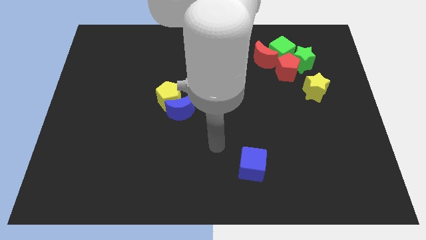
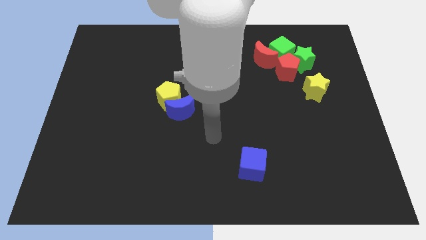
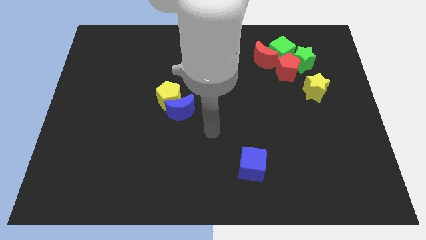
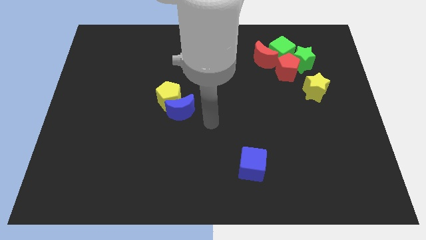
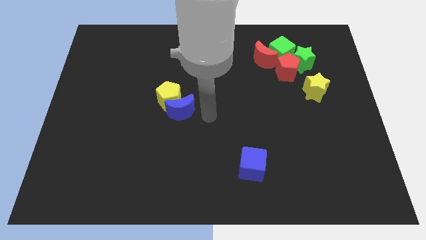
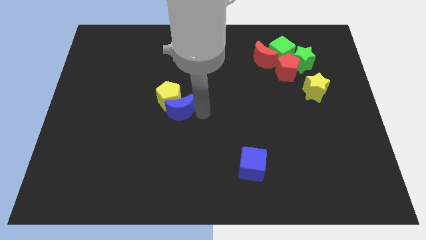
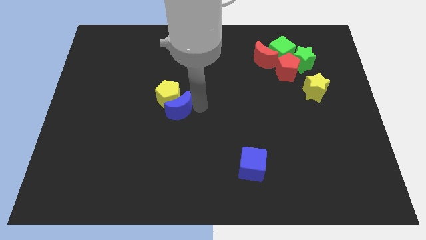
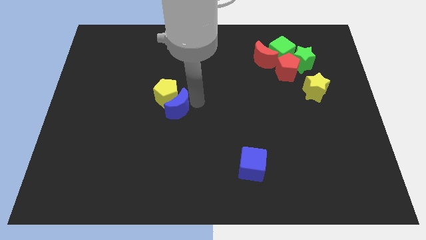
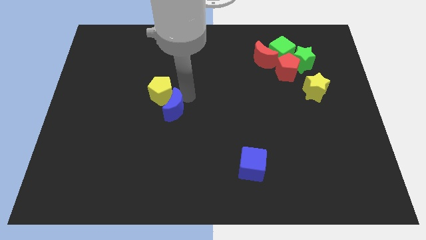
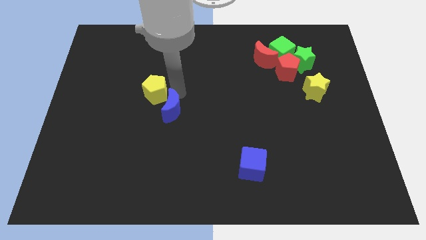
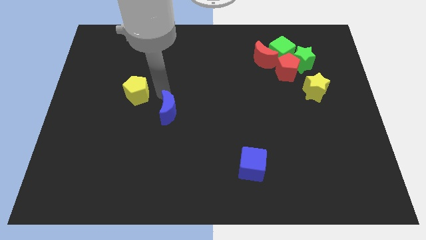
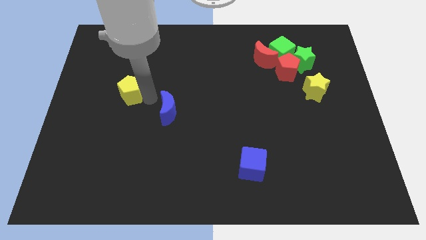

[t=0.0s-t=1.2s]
separate the blue moon from the yellow pentagon

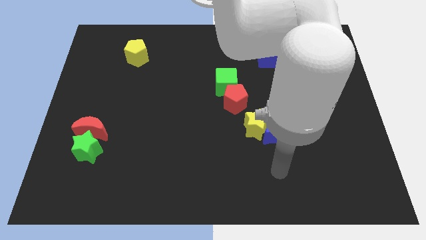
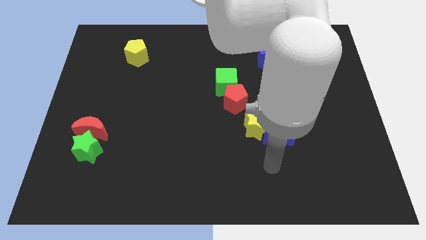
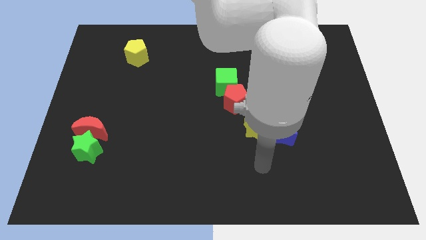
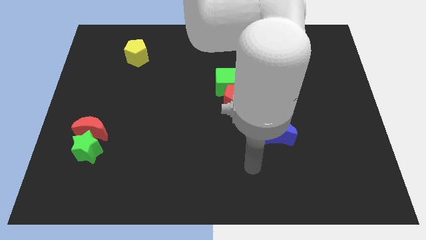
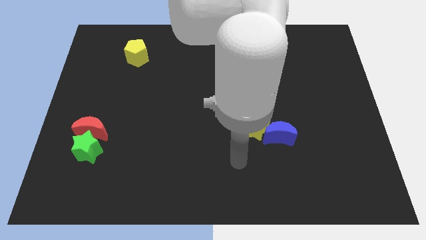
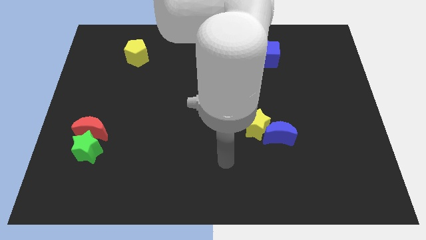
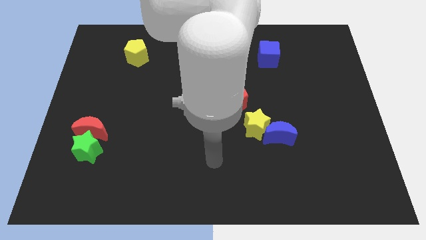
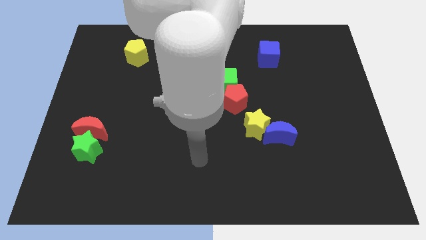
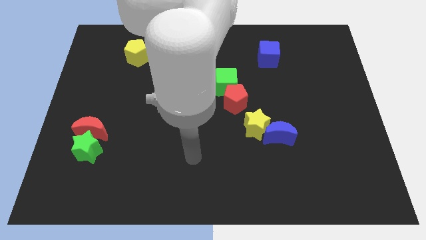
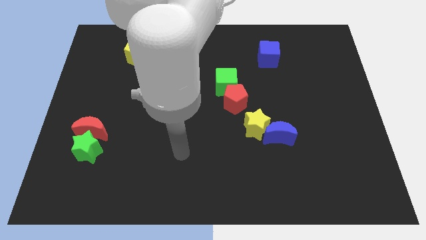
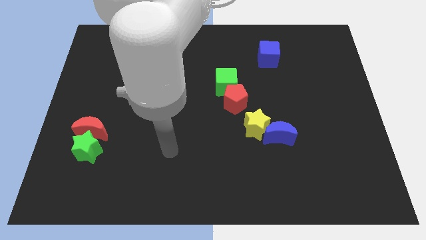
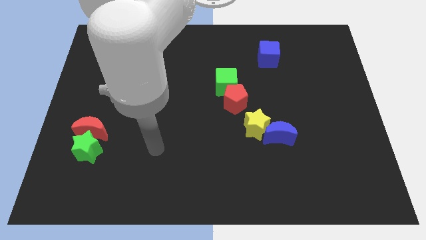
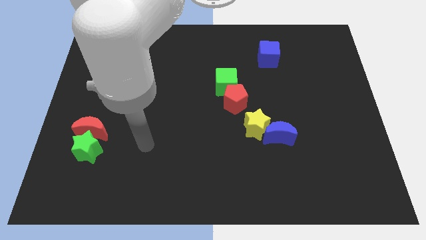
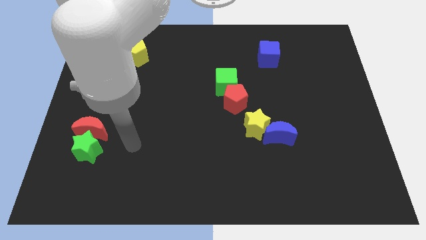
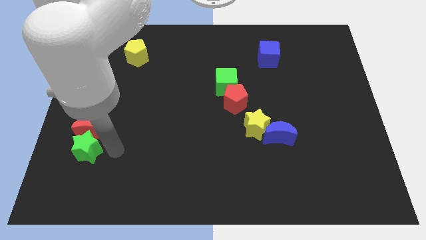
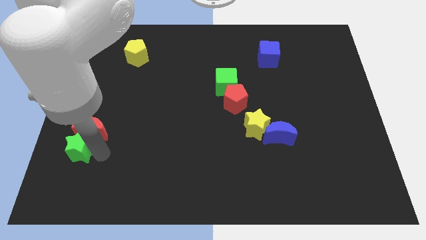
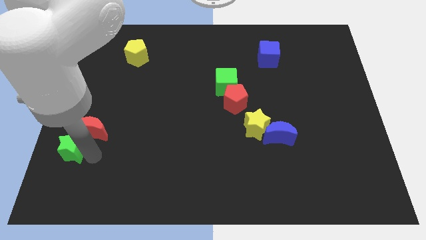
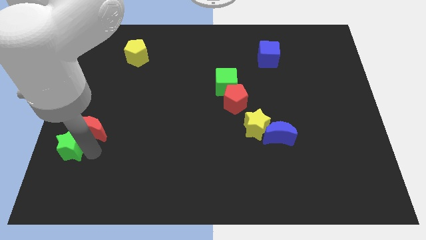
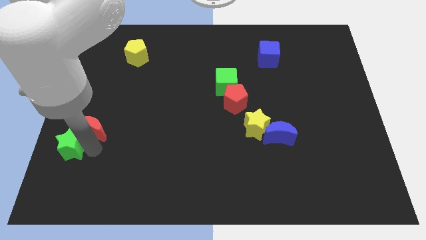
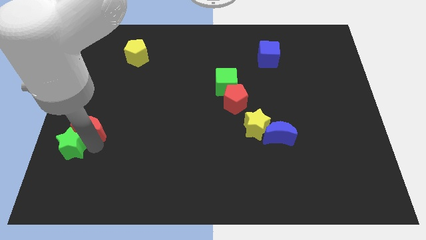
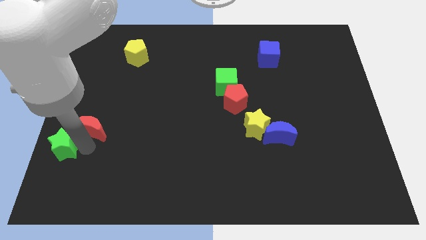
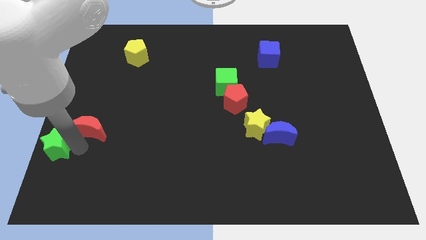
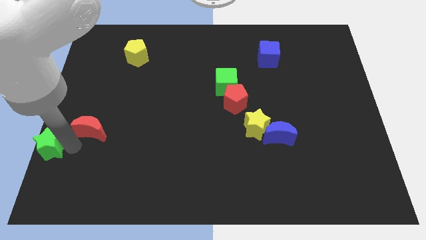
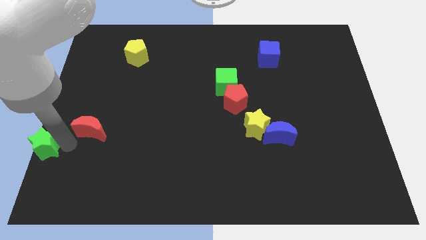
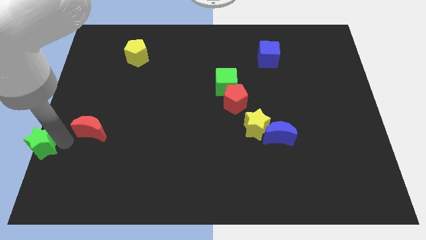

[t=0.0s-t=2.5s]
separate the red moon from the green star

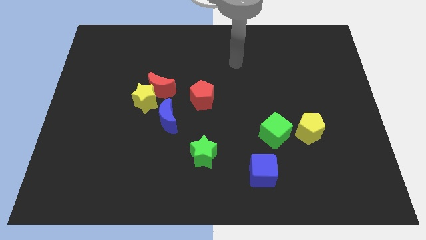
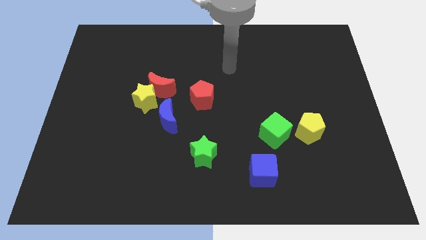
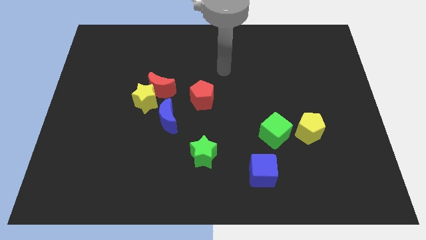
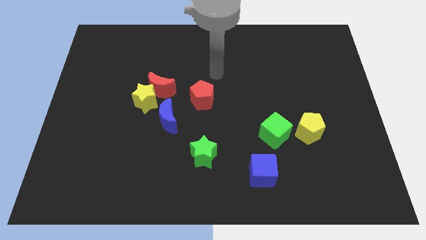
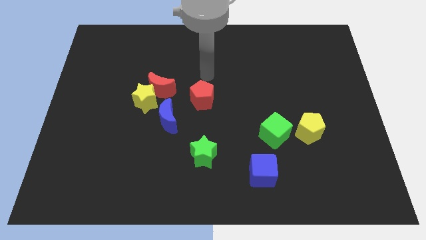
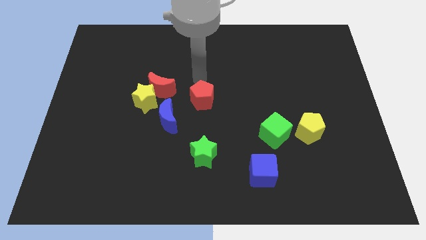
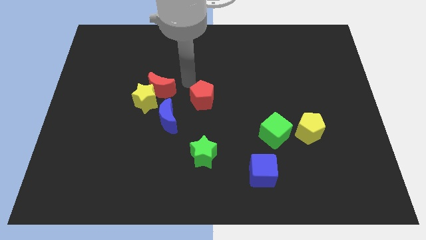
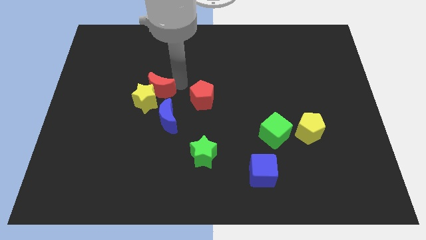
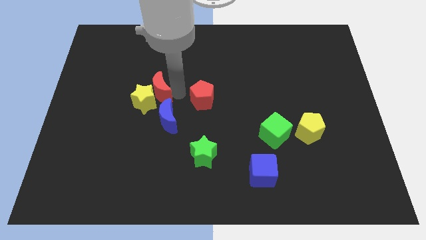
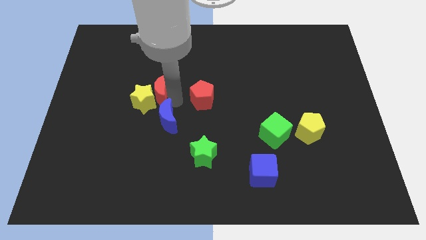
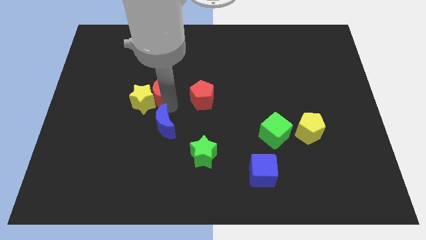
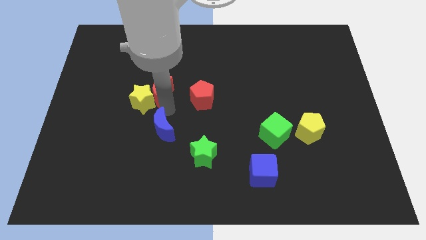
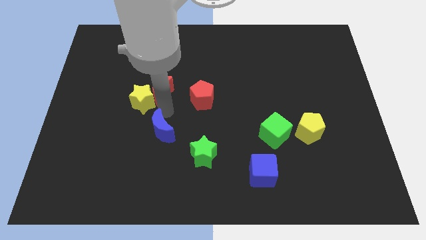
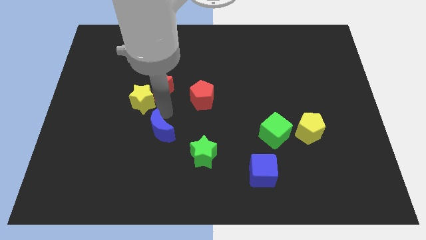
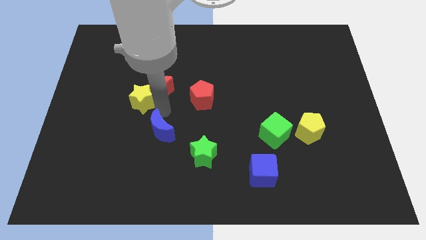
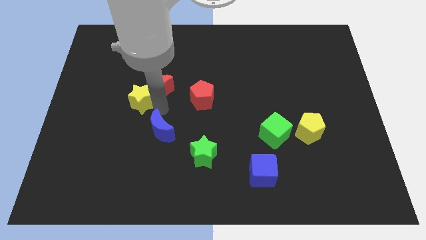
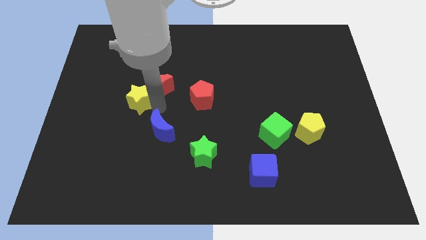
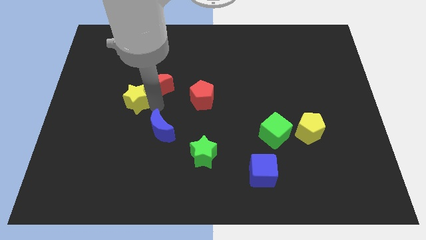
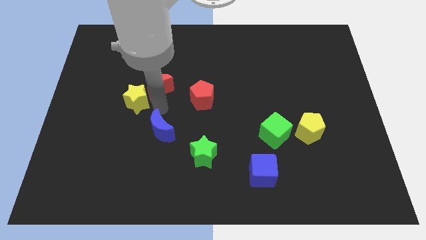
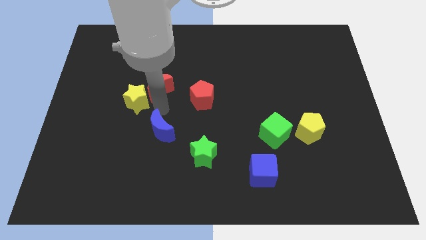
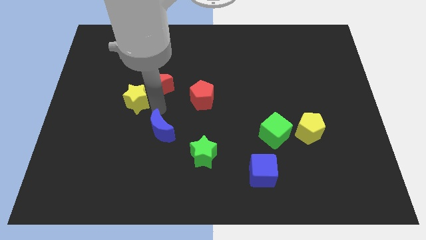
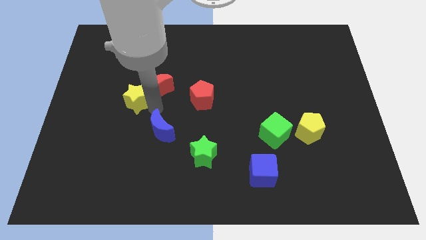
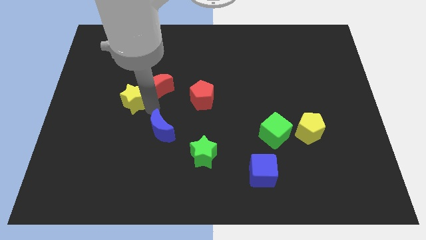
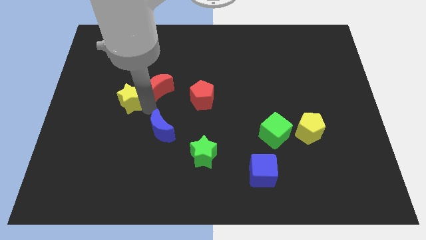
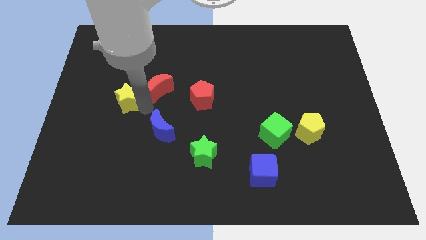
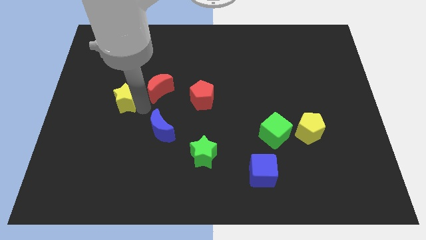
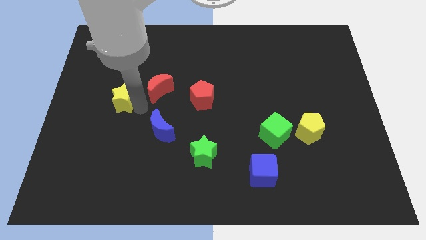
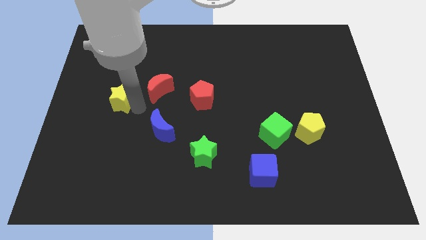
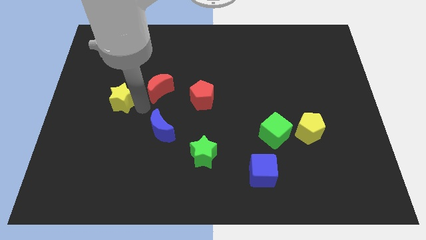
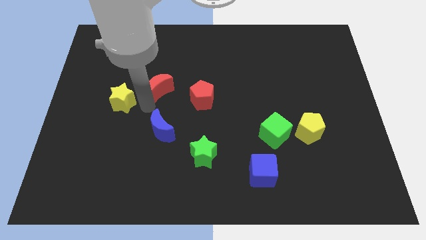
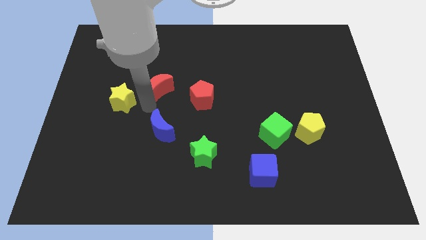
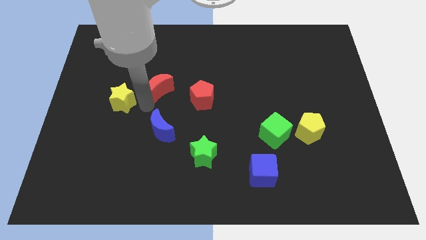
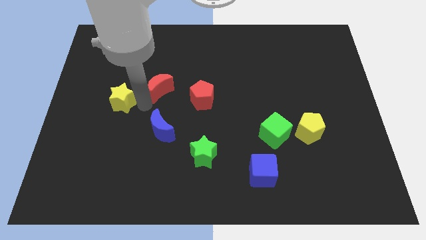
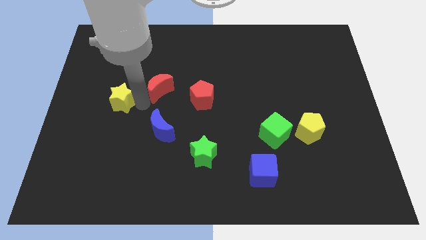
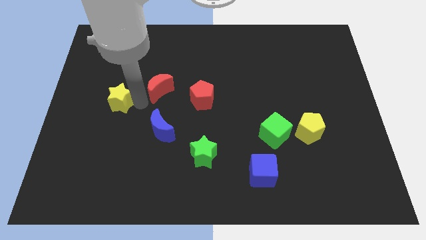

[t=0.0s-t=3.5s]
move the yellow star away from the red moon and blue moon

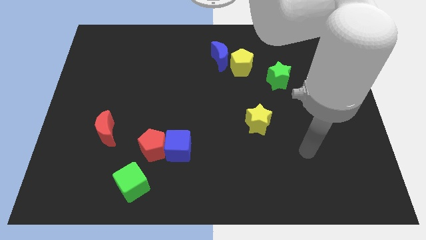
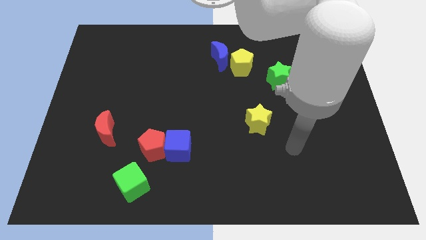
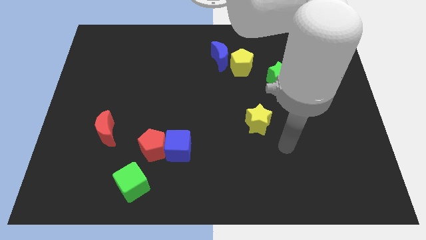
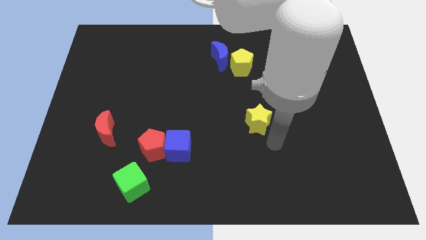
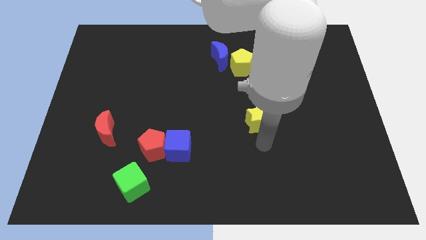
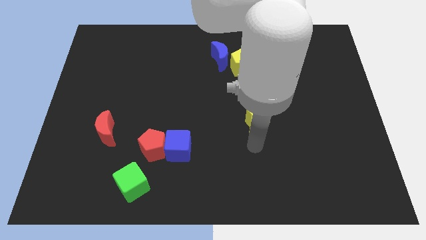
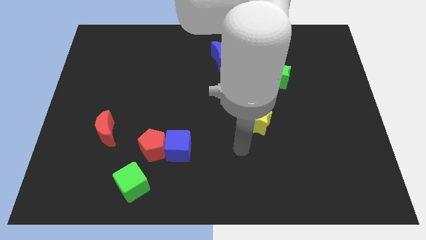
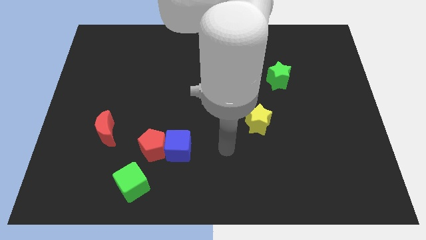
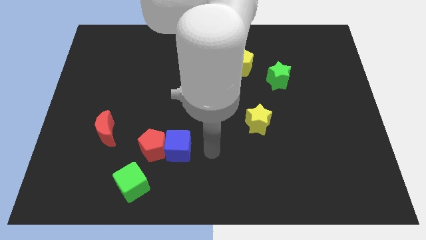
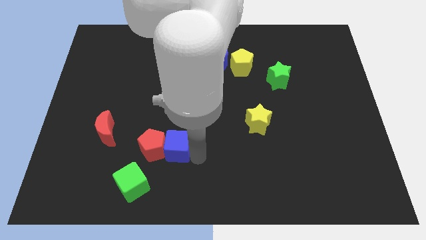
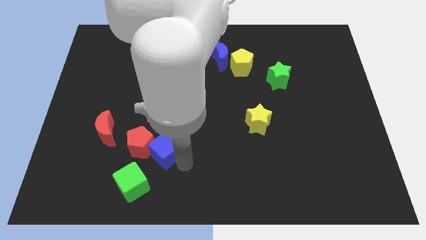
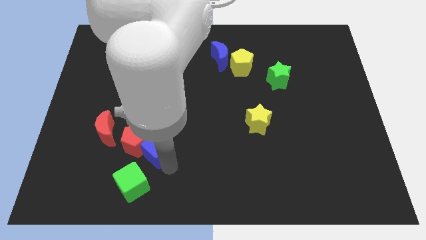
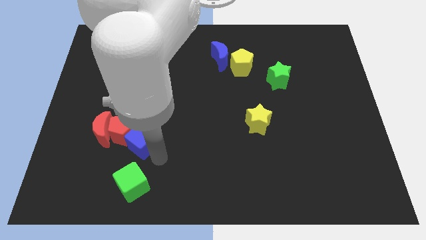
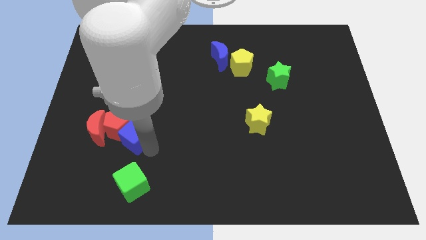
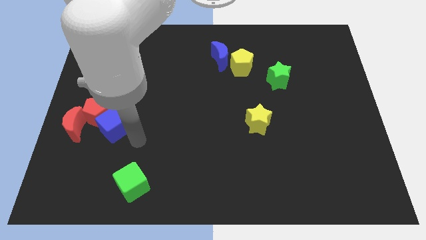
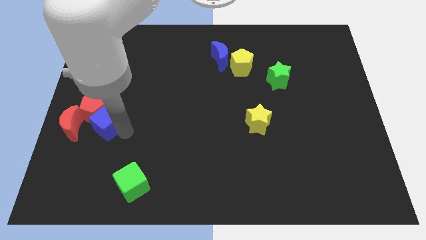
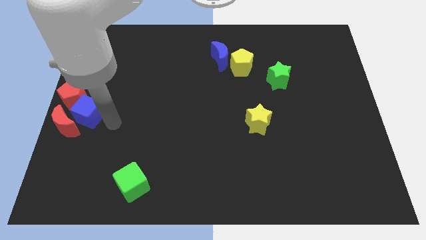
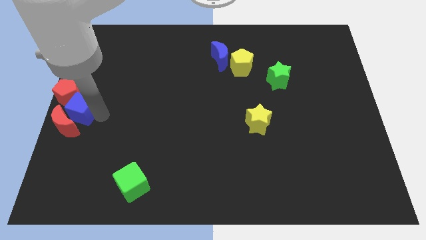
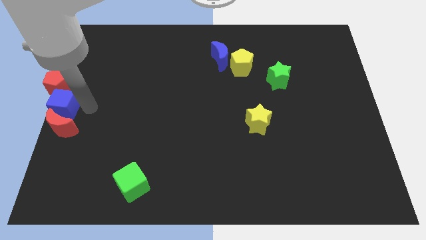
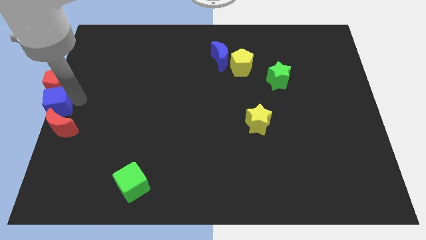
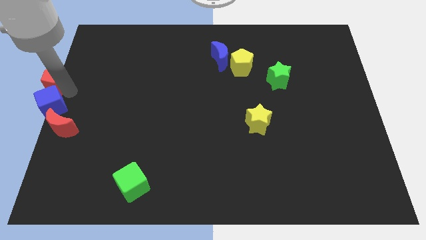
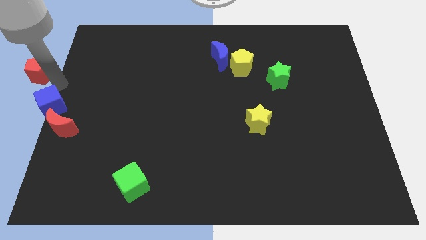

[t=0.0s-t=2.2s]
pull the blue cube apart from the red pentagon
